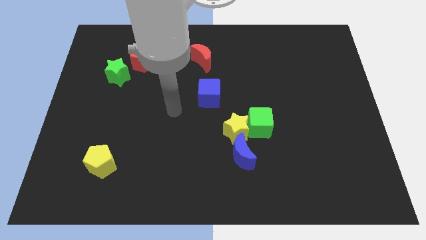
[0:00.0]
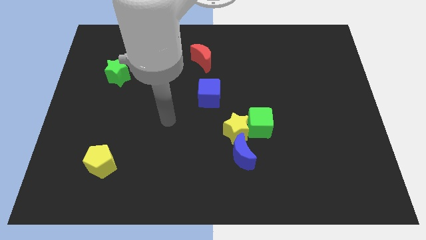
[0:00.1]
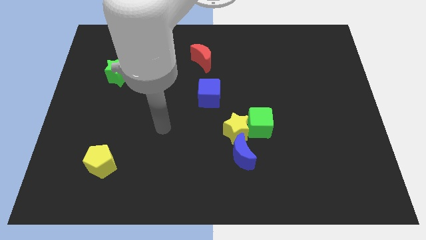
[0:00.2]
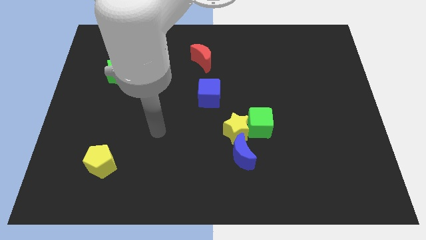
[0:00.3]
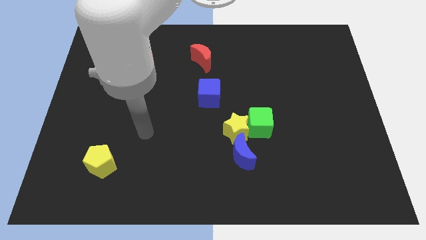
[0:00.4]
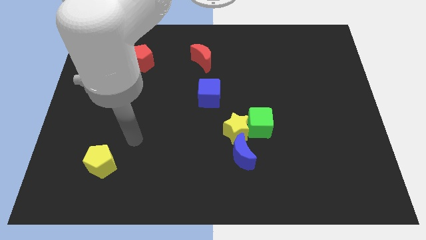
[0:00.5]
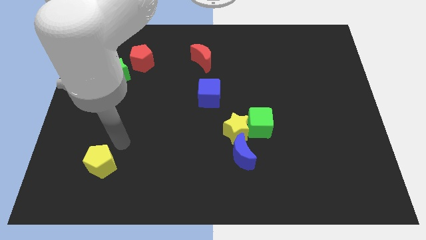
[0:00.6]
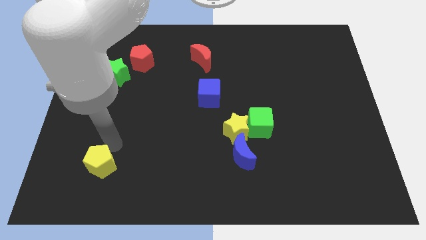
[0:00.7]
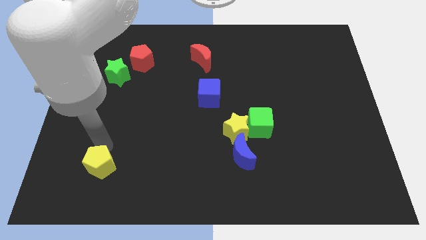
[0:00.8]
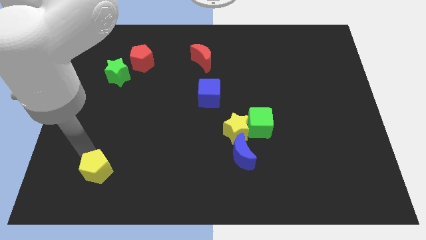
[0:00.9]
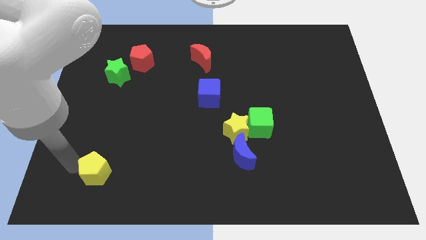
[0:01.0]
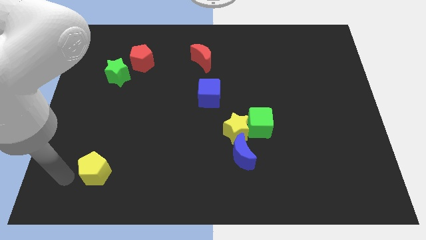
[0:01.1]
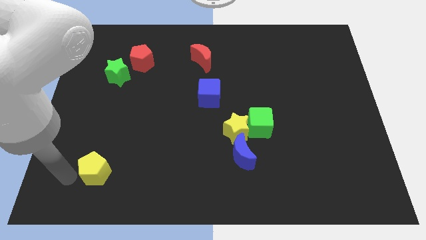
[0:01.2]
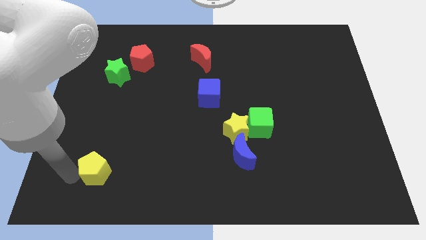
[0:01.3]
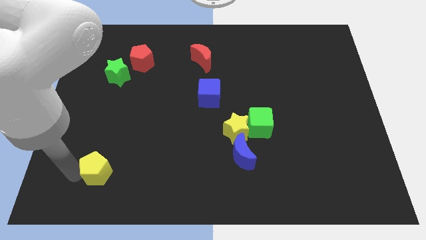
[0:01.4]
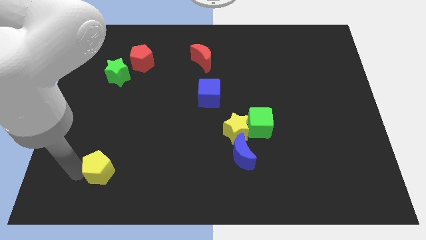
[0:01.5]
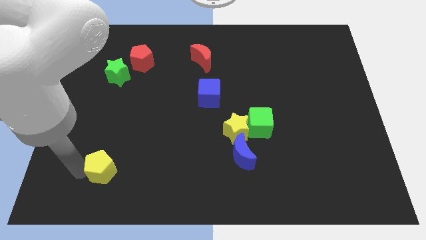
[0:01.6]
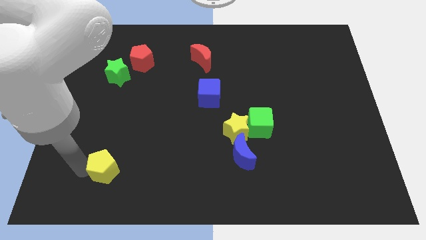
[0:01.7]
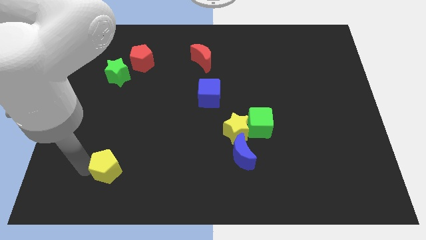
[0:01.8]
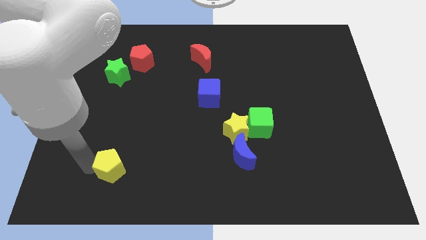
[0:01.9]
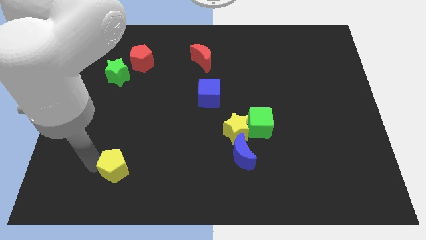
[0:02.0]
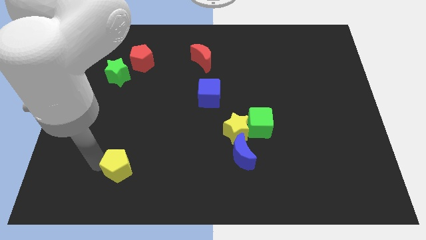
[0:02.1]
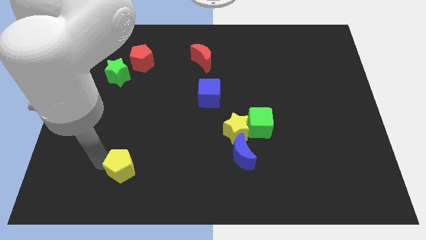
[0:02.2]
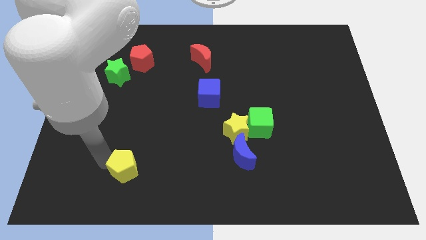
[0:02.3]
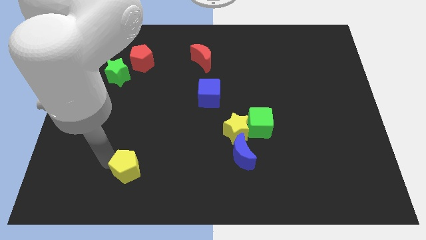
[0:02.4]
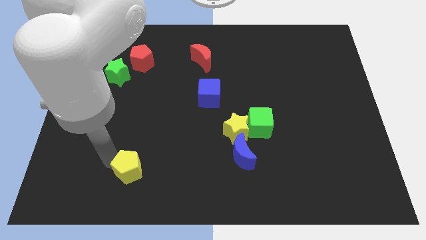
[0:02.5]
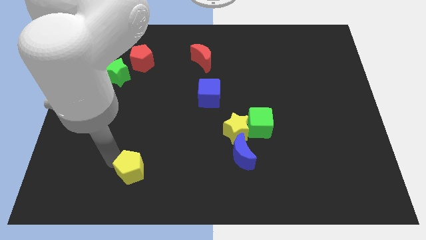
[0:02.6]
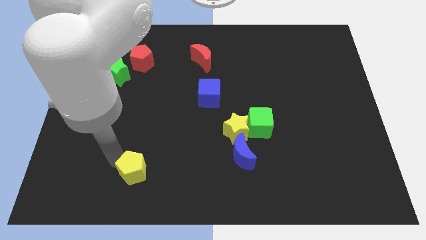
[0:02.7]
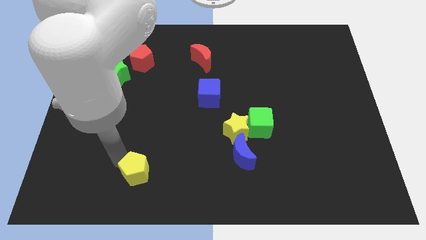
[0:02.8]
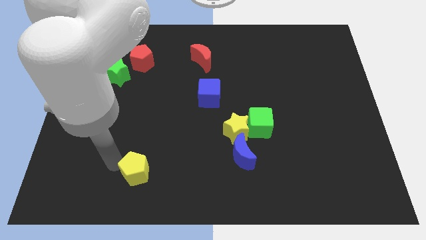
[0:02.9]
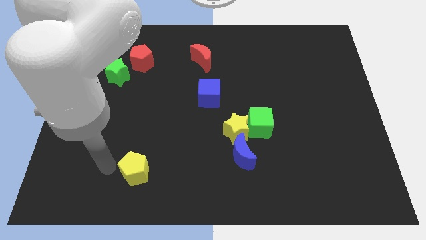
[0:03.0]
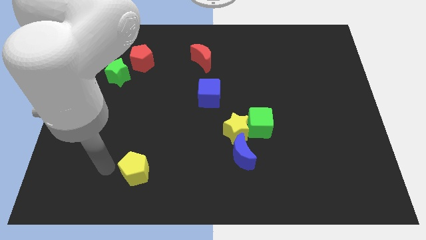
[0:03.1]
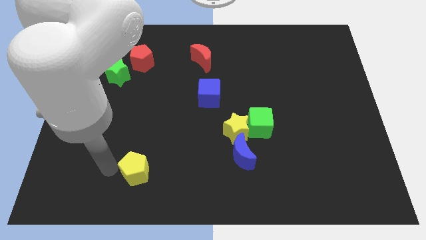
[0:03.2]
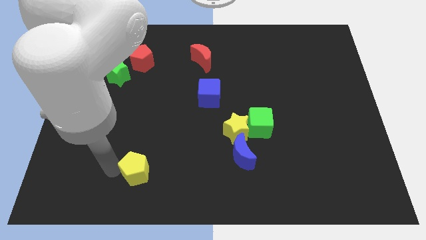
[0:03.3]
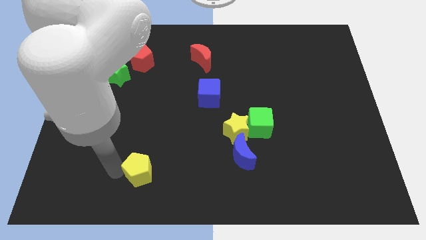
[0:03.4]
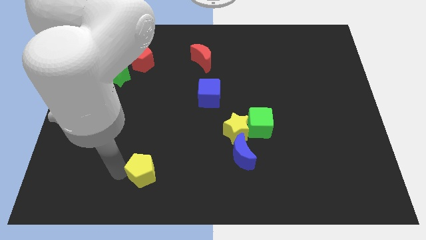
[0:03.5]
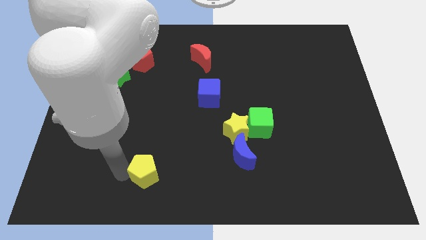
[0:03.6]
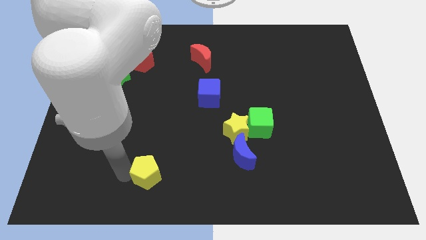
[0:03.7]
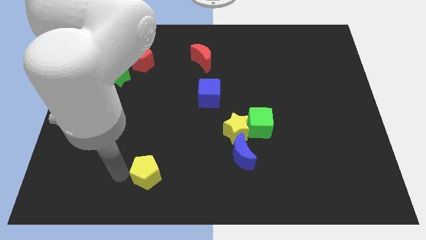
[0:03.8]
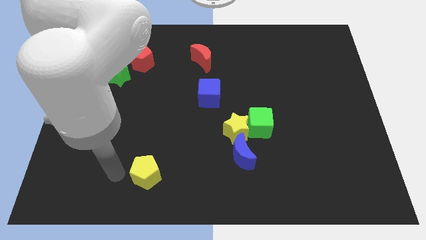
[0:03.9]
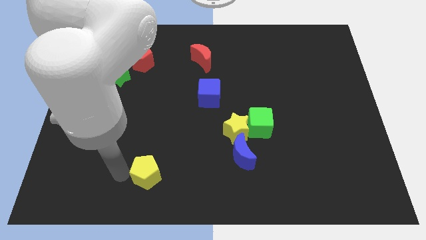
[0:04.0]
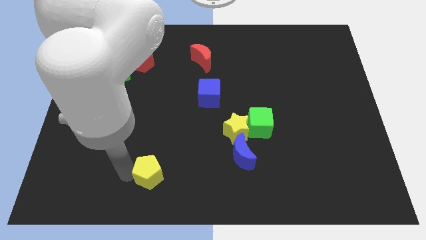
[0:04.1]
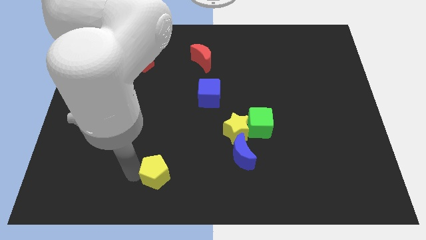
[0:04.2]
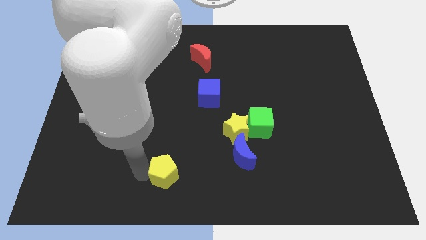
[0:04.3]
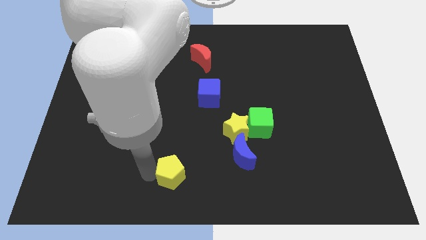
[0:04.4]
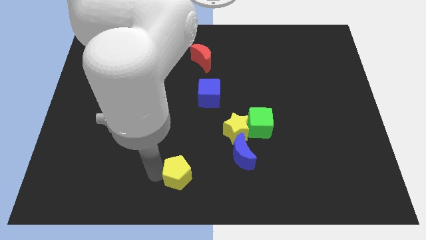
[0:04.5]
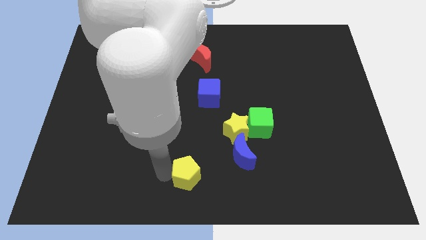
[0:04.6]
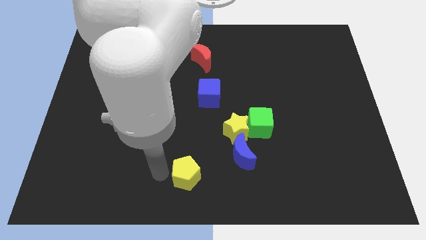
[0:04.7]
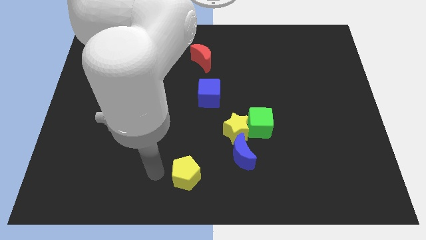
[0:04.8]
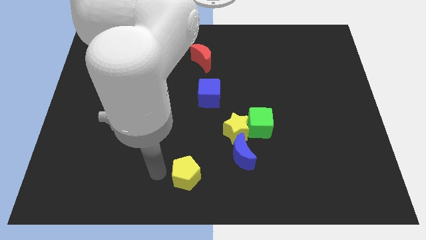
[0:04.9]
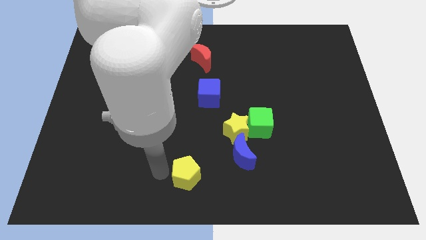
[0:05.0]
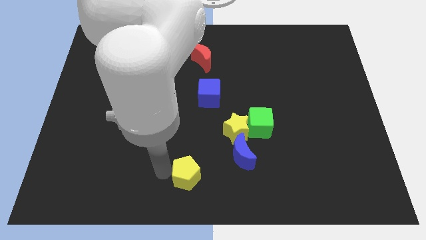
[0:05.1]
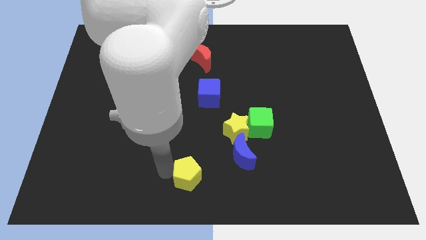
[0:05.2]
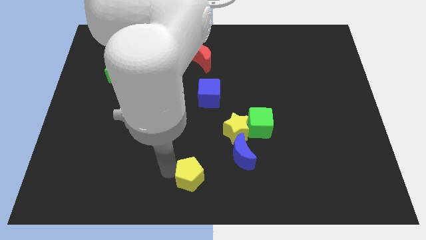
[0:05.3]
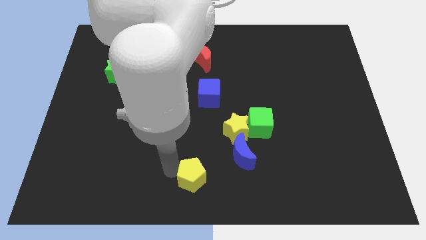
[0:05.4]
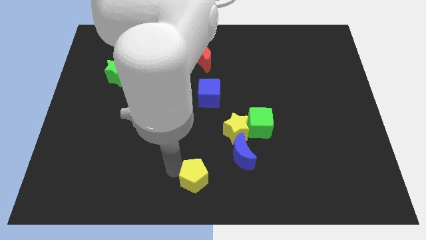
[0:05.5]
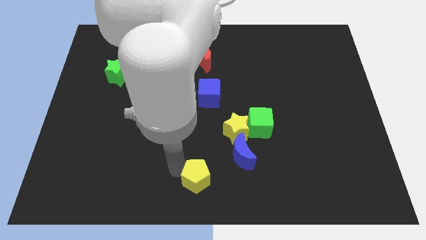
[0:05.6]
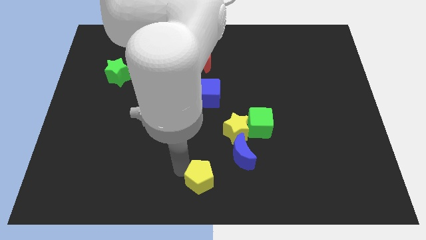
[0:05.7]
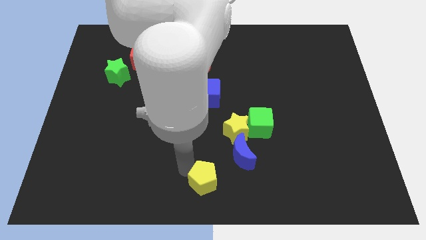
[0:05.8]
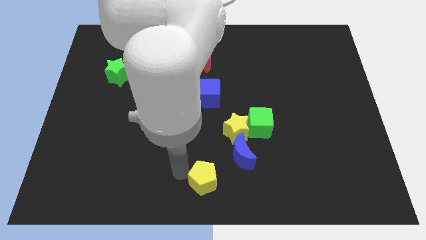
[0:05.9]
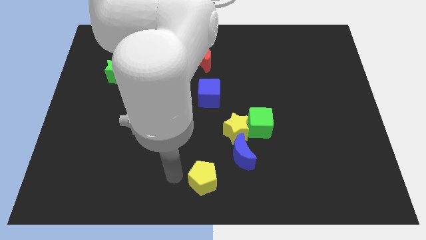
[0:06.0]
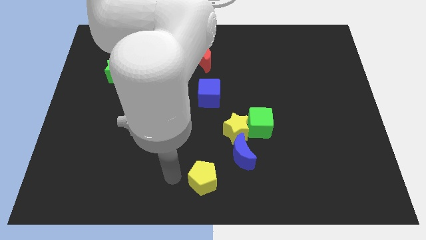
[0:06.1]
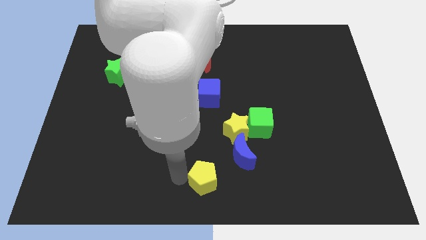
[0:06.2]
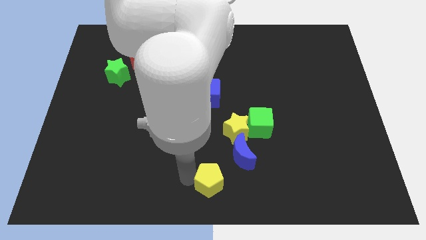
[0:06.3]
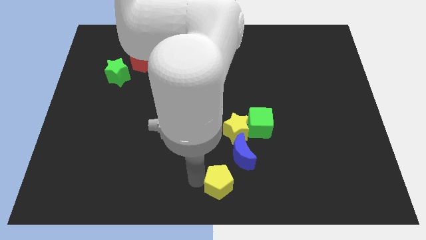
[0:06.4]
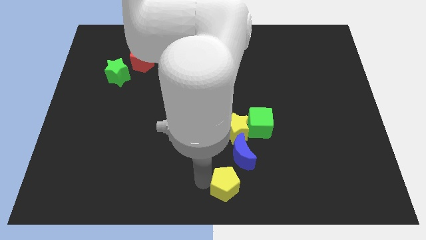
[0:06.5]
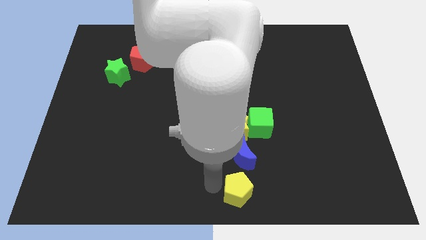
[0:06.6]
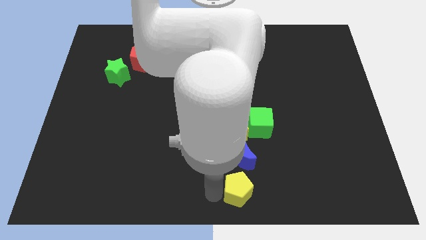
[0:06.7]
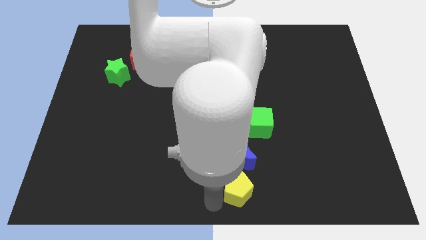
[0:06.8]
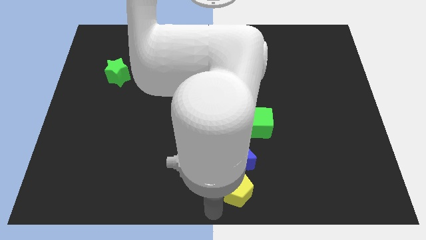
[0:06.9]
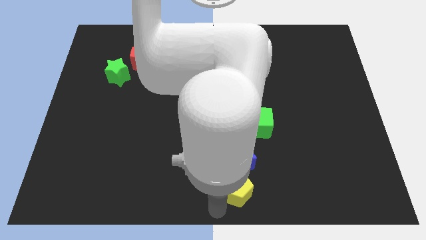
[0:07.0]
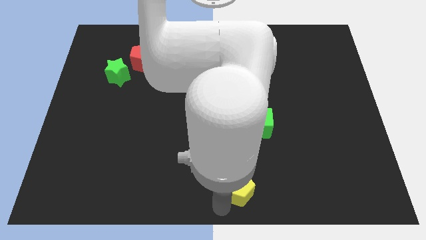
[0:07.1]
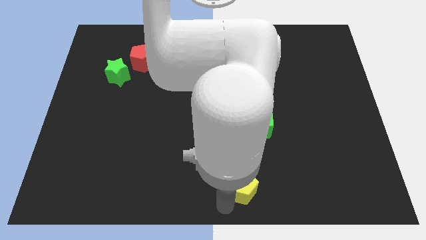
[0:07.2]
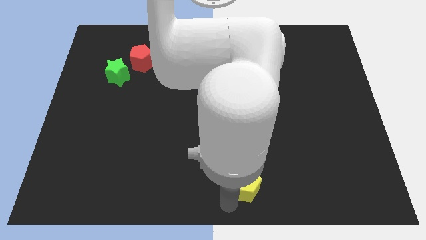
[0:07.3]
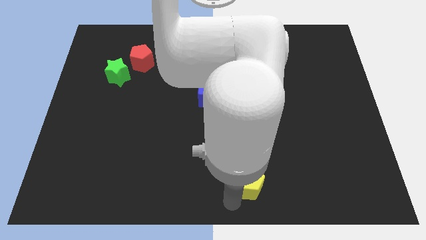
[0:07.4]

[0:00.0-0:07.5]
slide the yellow pentagon to the bottom side of the green cube
